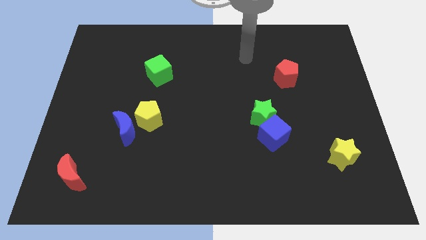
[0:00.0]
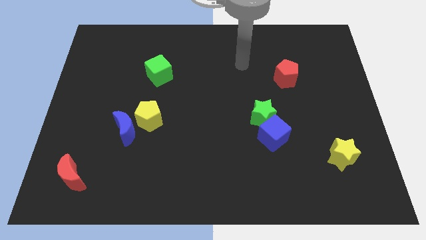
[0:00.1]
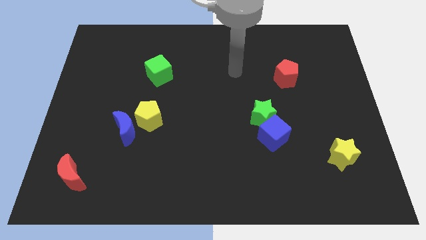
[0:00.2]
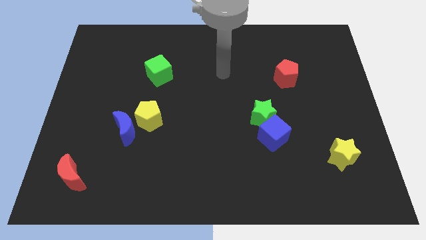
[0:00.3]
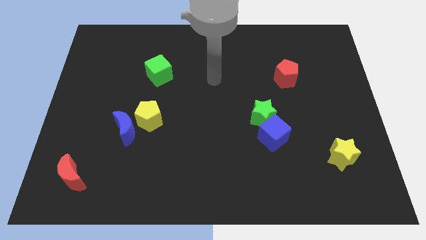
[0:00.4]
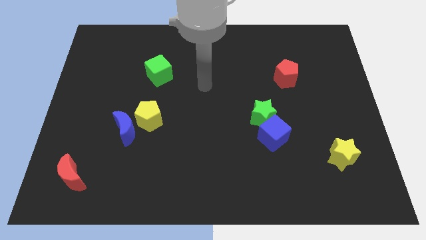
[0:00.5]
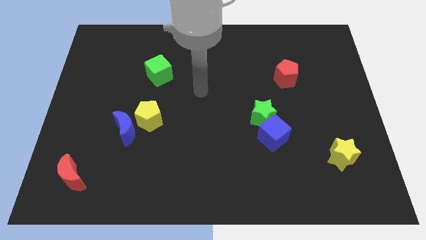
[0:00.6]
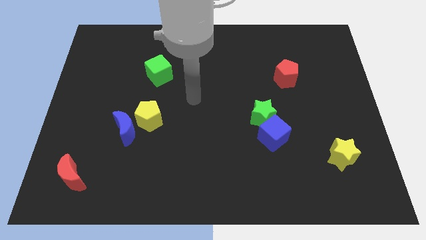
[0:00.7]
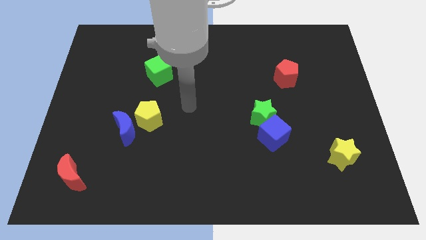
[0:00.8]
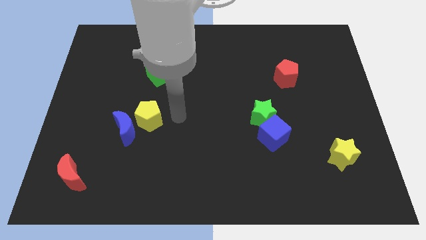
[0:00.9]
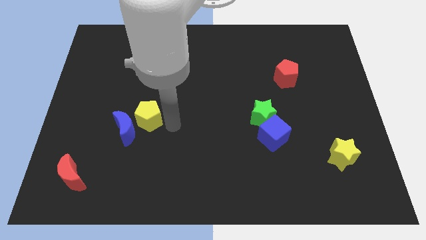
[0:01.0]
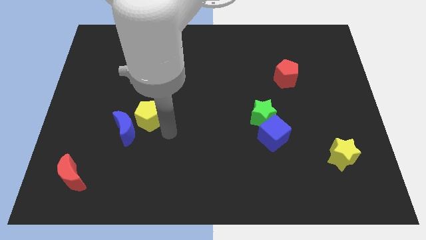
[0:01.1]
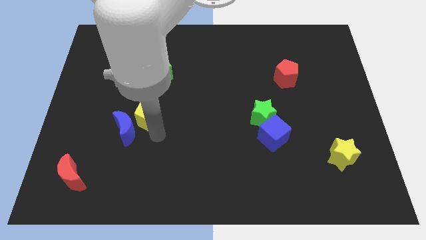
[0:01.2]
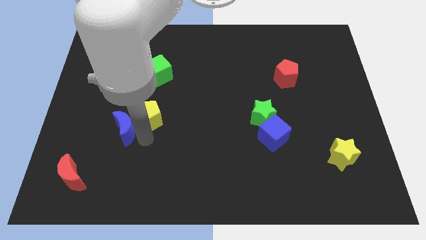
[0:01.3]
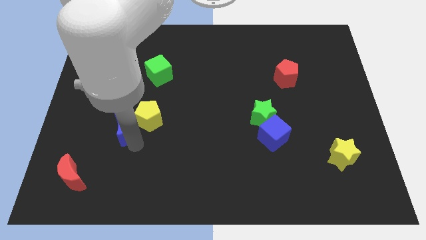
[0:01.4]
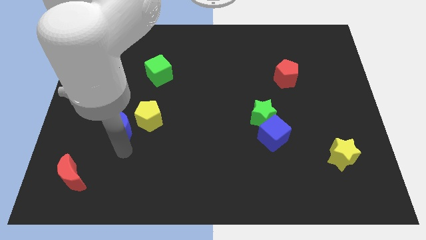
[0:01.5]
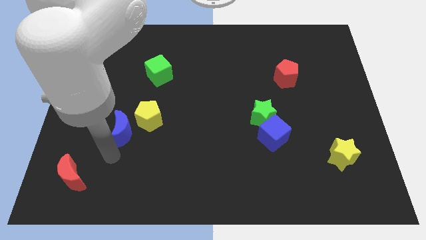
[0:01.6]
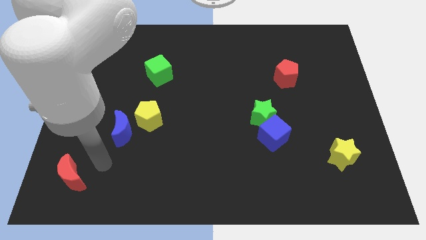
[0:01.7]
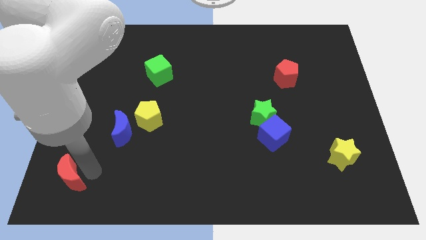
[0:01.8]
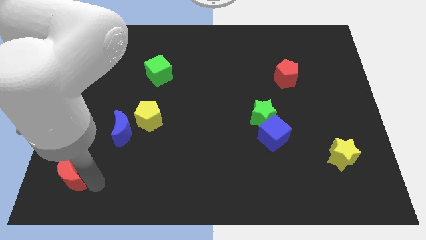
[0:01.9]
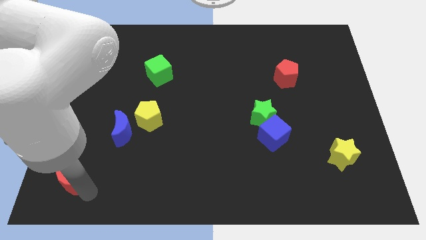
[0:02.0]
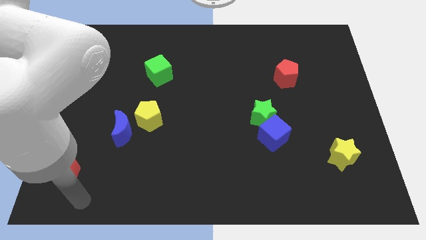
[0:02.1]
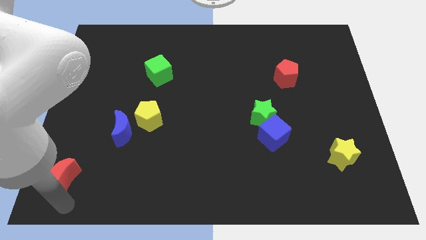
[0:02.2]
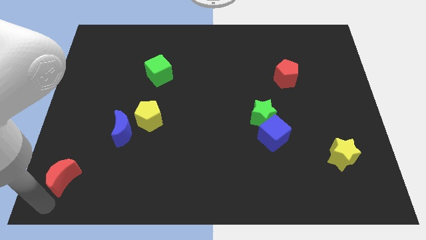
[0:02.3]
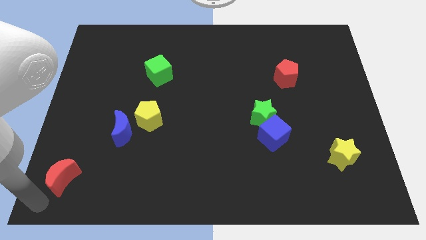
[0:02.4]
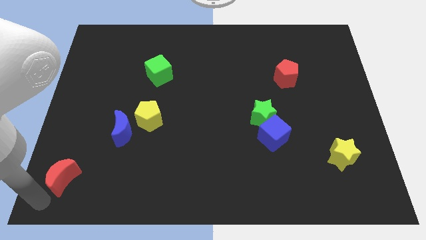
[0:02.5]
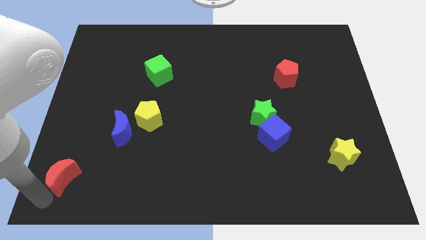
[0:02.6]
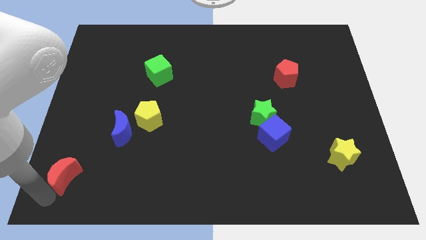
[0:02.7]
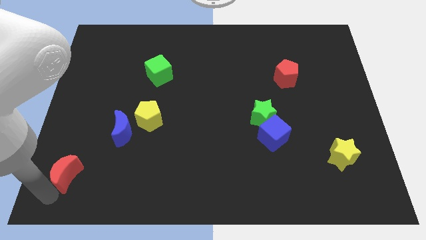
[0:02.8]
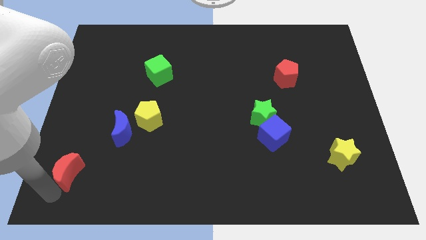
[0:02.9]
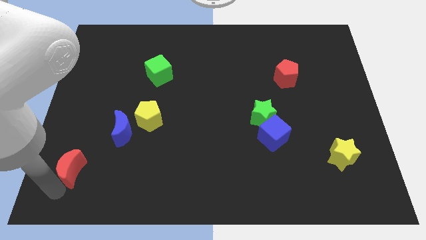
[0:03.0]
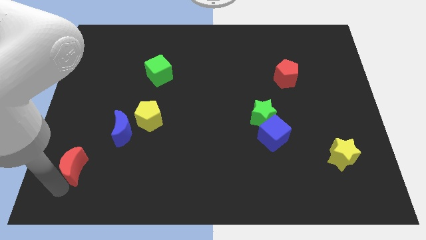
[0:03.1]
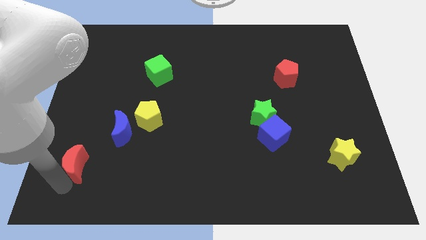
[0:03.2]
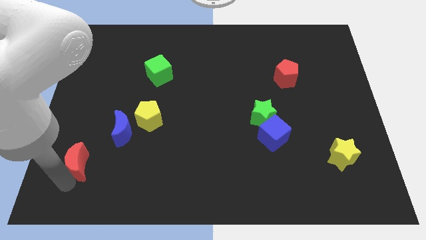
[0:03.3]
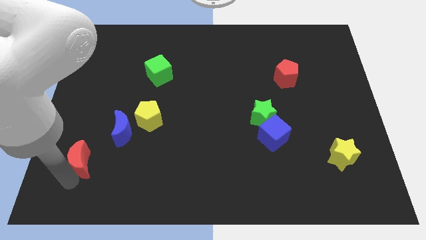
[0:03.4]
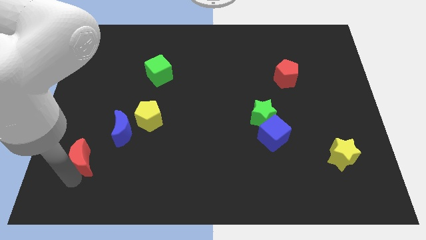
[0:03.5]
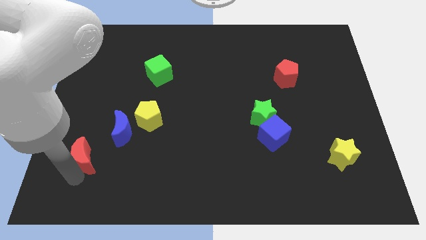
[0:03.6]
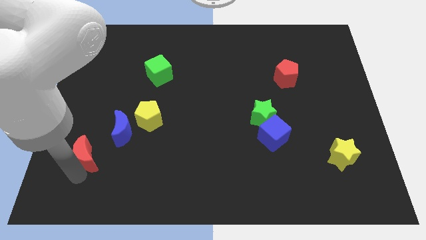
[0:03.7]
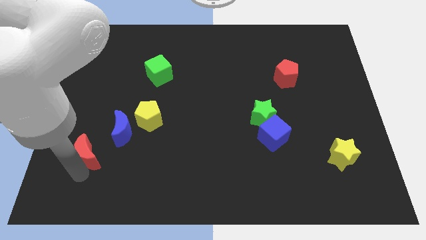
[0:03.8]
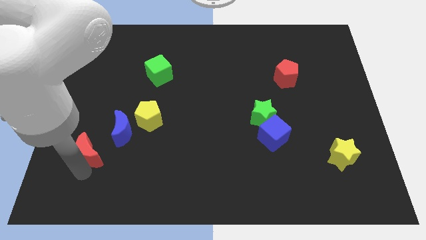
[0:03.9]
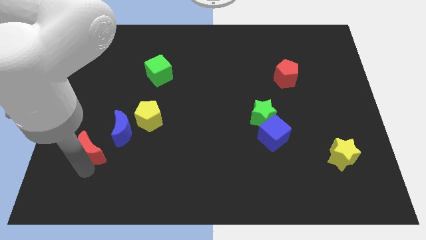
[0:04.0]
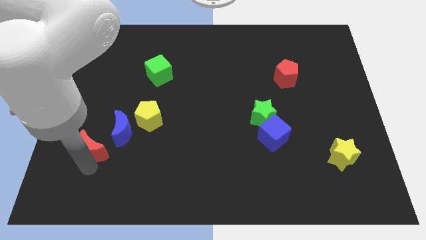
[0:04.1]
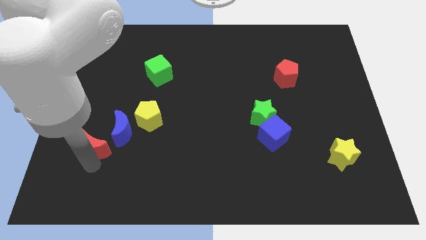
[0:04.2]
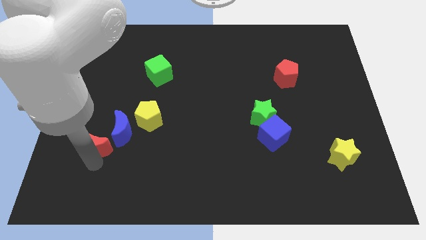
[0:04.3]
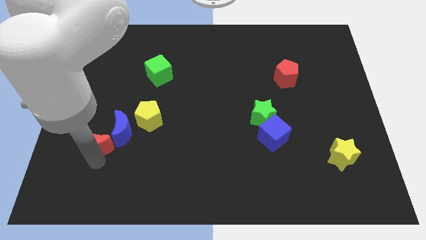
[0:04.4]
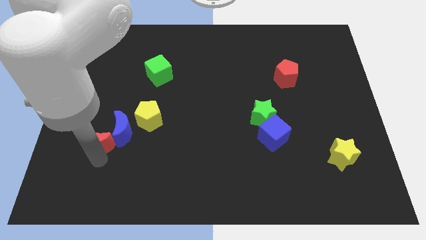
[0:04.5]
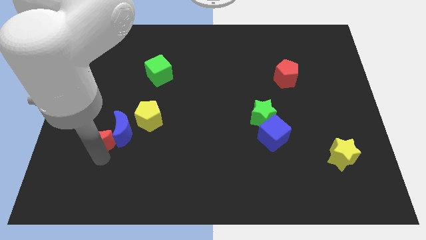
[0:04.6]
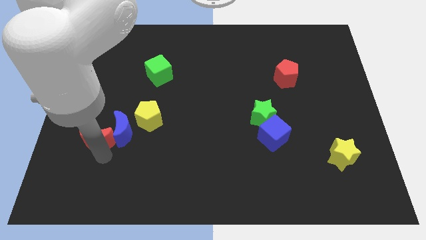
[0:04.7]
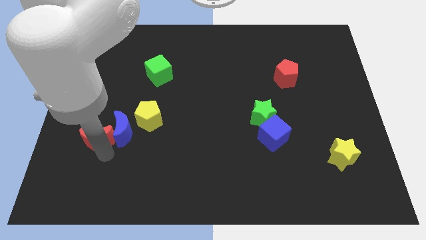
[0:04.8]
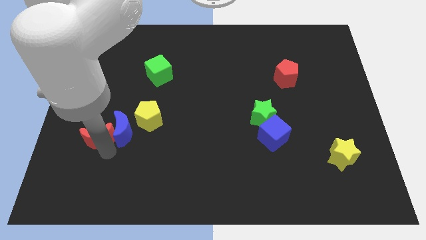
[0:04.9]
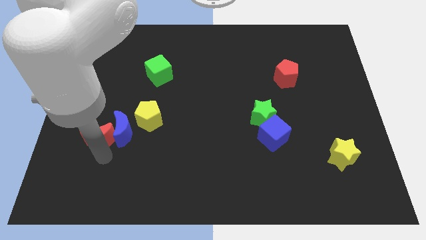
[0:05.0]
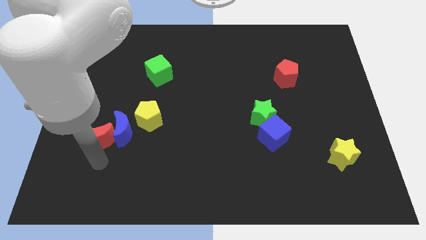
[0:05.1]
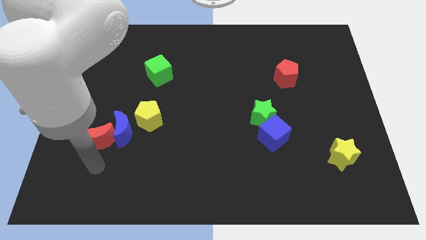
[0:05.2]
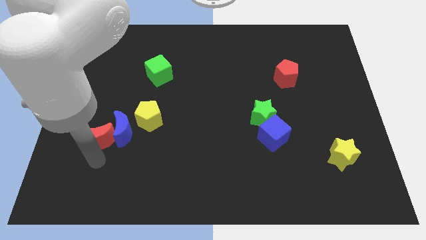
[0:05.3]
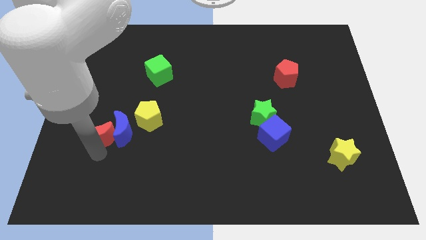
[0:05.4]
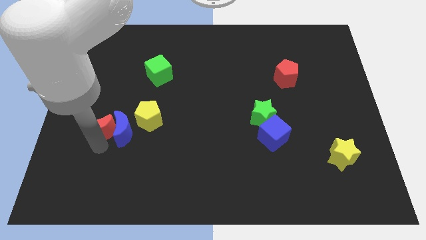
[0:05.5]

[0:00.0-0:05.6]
put the red moon to the top left of the blue moon
